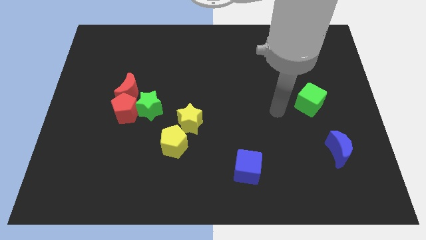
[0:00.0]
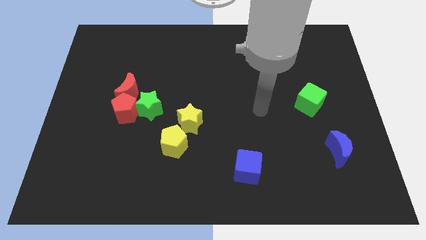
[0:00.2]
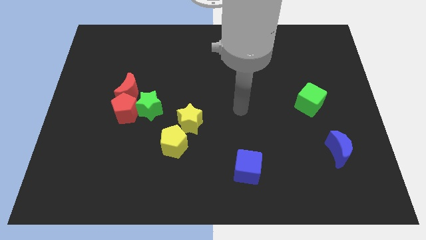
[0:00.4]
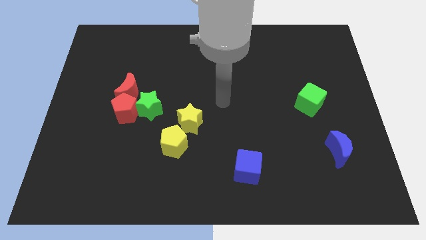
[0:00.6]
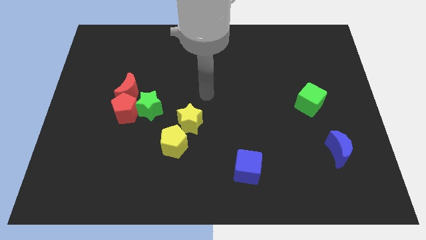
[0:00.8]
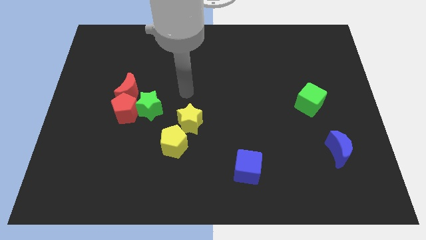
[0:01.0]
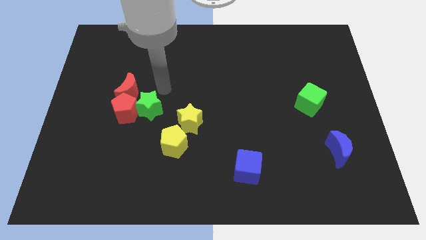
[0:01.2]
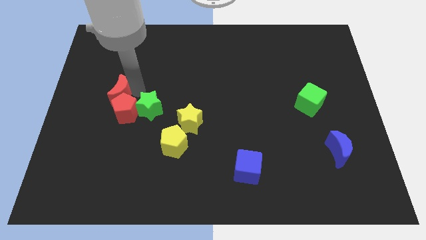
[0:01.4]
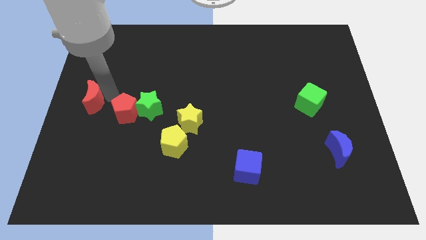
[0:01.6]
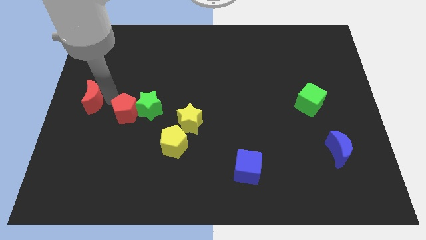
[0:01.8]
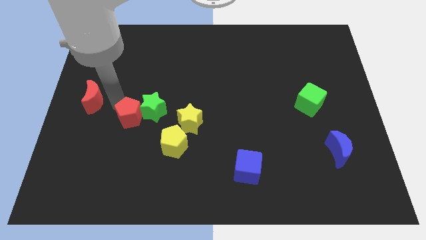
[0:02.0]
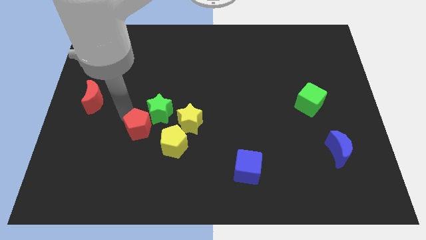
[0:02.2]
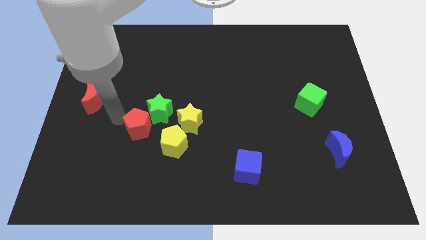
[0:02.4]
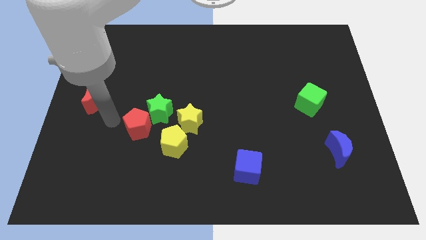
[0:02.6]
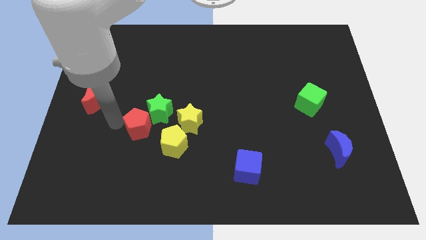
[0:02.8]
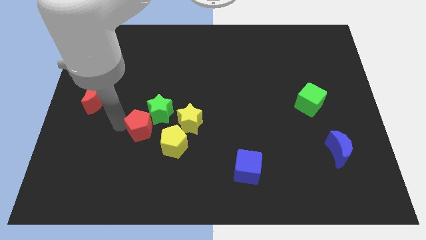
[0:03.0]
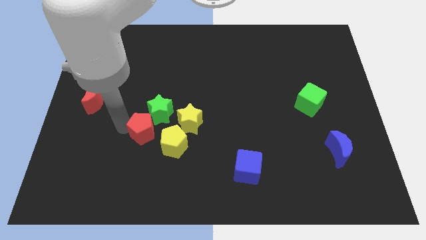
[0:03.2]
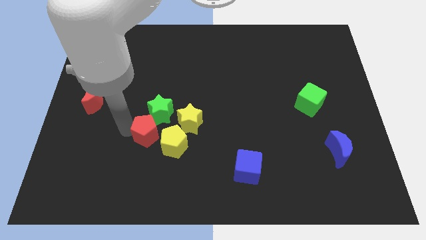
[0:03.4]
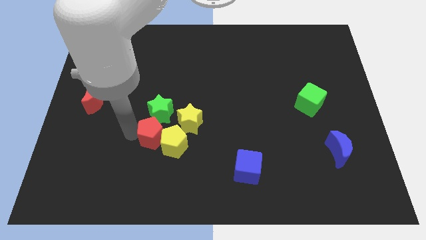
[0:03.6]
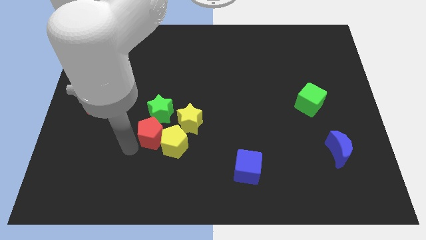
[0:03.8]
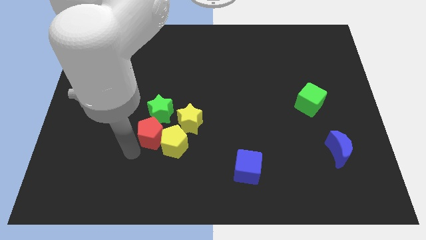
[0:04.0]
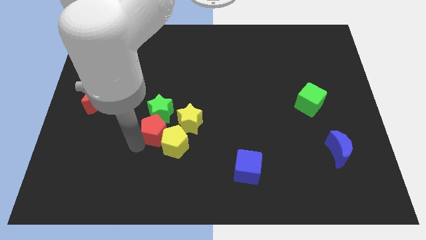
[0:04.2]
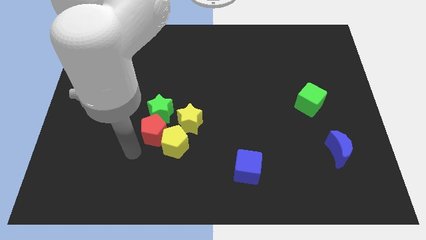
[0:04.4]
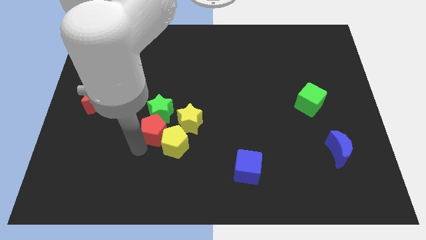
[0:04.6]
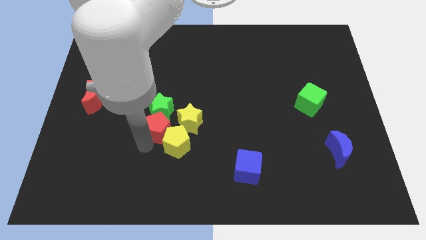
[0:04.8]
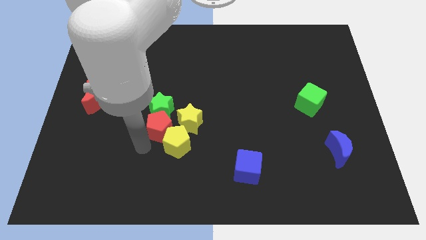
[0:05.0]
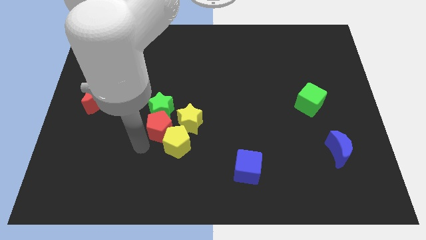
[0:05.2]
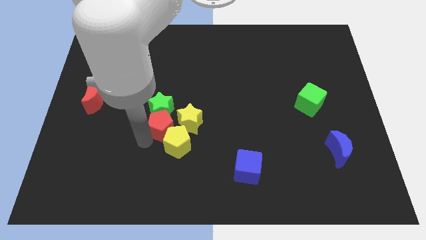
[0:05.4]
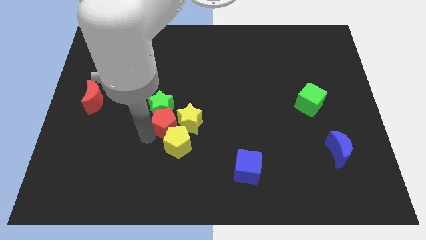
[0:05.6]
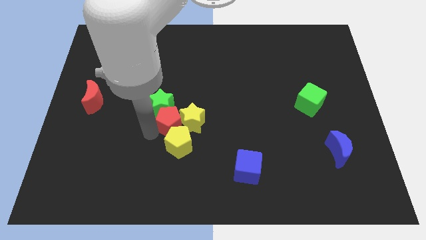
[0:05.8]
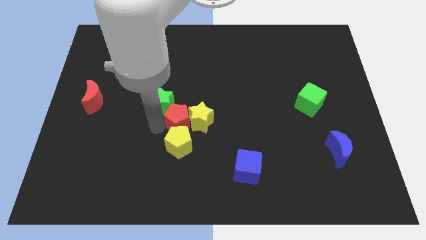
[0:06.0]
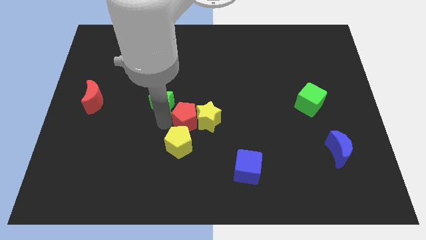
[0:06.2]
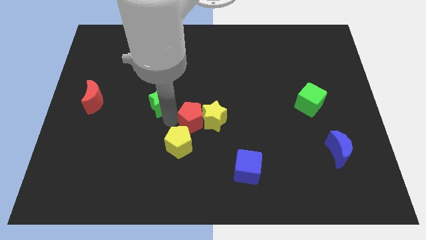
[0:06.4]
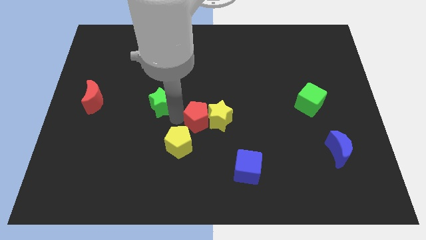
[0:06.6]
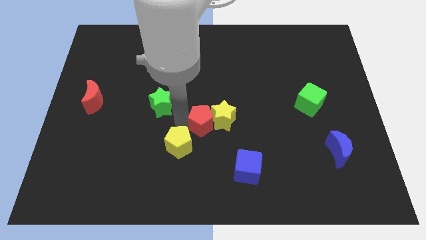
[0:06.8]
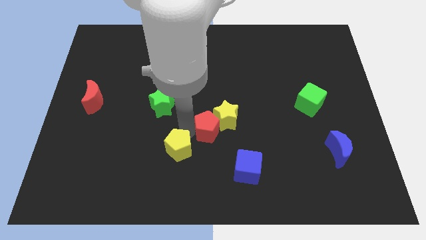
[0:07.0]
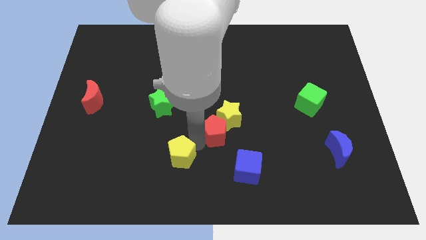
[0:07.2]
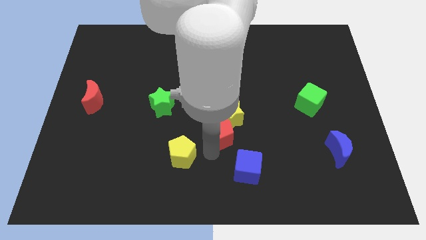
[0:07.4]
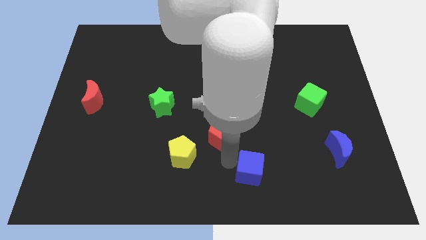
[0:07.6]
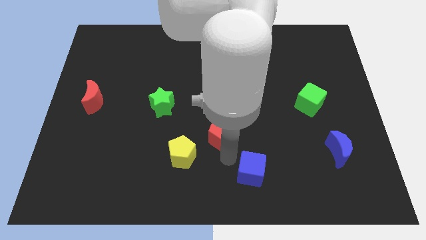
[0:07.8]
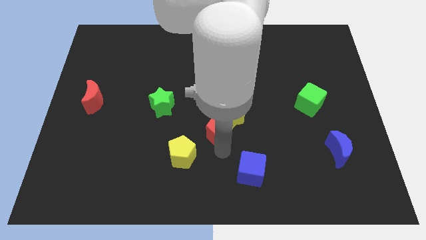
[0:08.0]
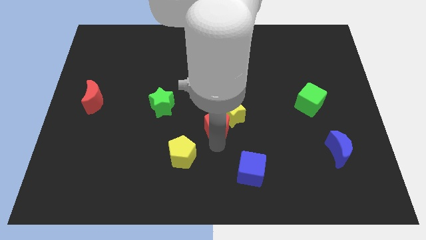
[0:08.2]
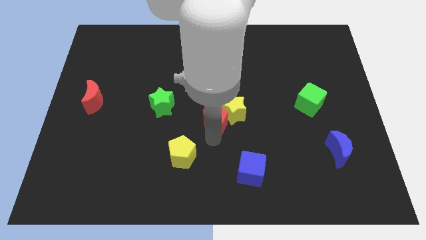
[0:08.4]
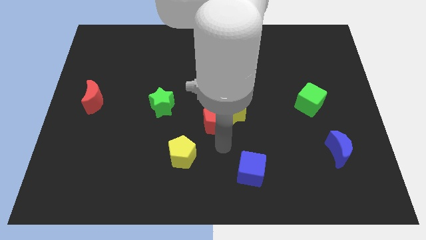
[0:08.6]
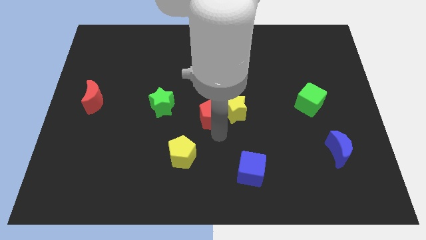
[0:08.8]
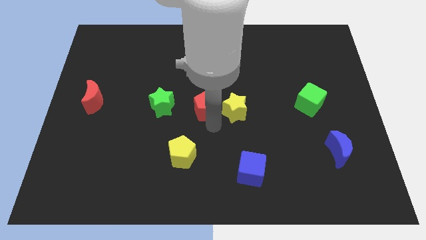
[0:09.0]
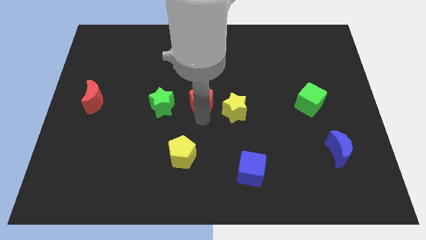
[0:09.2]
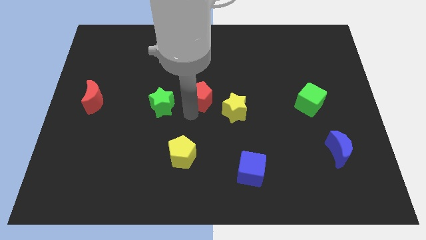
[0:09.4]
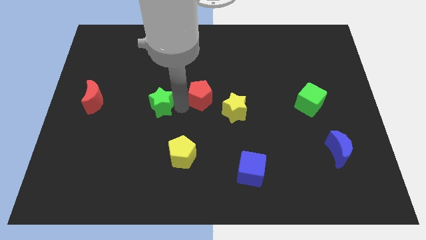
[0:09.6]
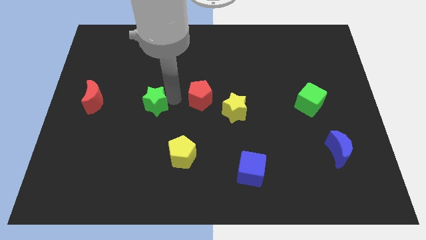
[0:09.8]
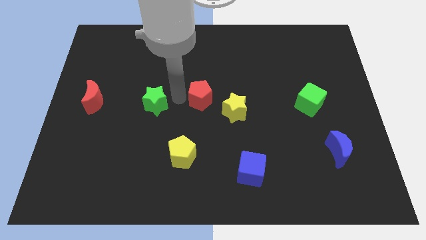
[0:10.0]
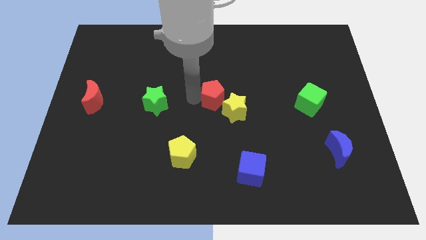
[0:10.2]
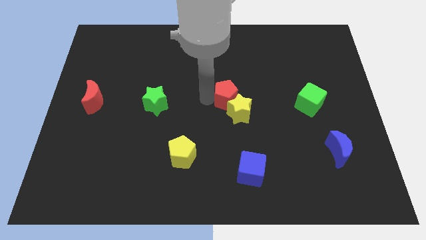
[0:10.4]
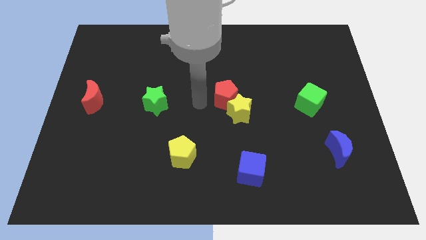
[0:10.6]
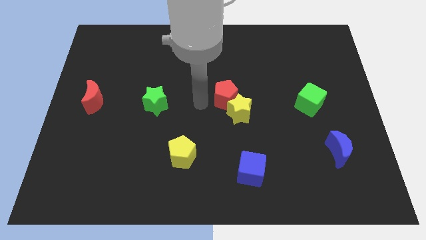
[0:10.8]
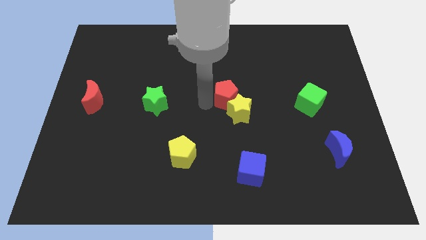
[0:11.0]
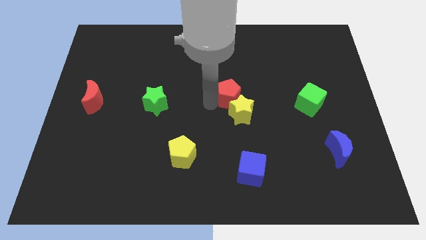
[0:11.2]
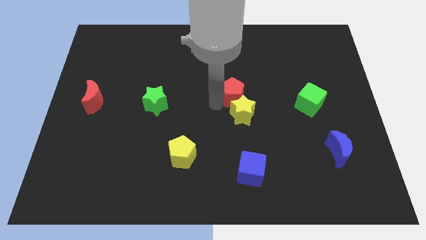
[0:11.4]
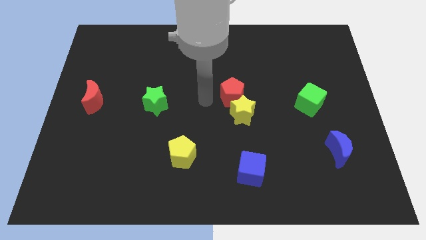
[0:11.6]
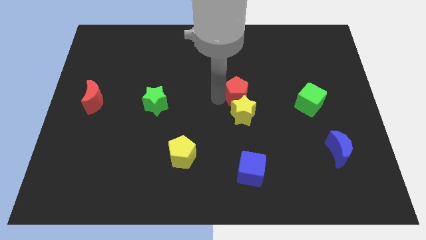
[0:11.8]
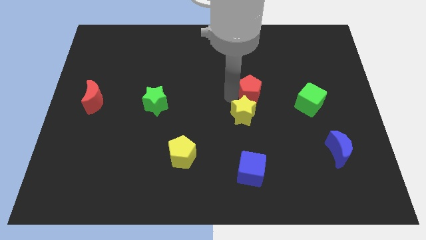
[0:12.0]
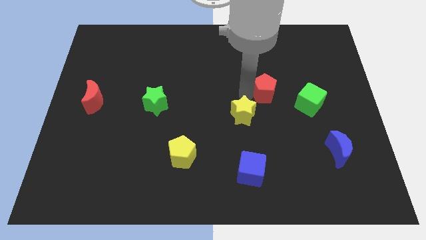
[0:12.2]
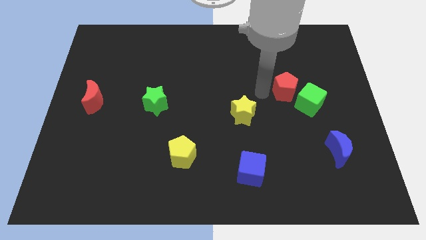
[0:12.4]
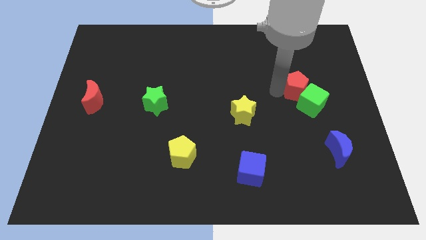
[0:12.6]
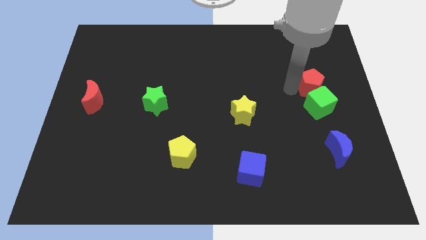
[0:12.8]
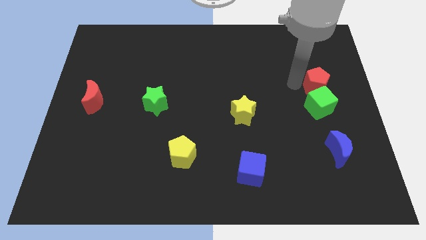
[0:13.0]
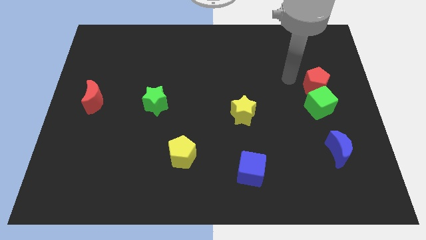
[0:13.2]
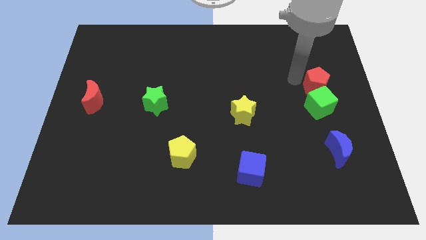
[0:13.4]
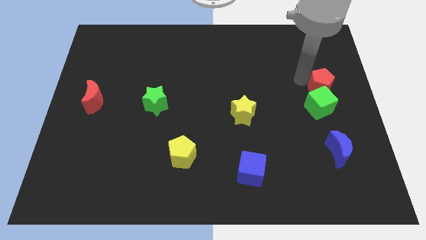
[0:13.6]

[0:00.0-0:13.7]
slide the red pentagon to the right side
